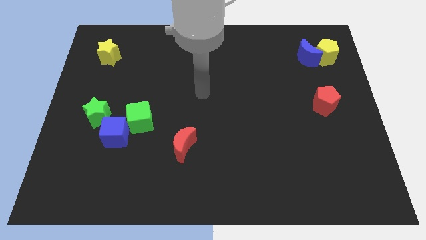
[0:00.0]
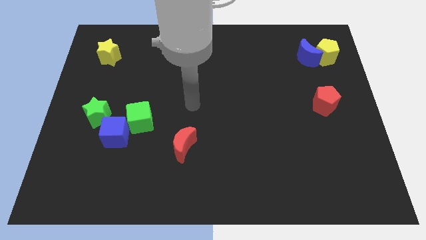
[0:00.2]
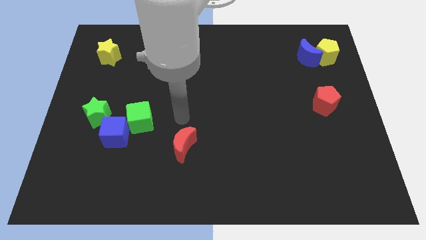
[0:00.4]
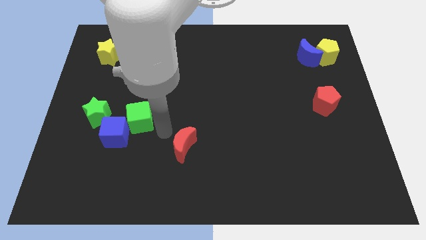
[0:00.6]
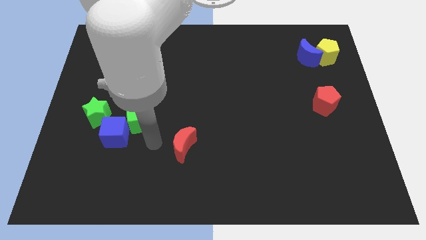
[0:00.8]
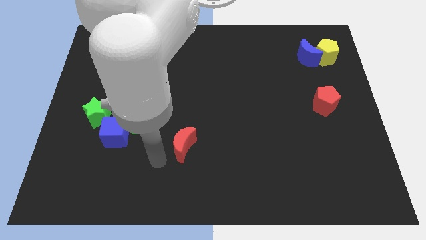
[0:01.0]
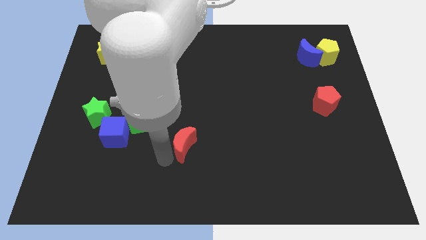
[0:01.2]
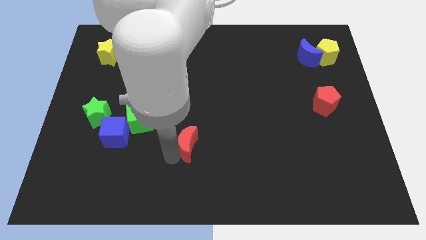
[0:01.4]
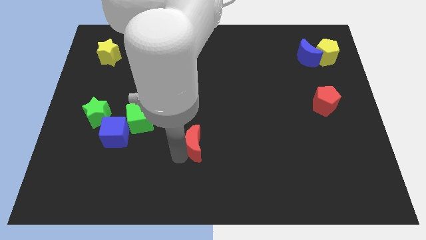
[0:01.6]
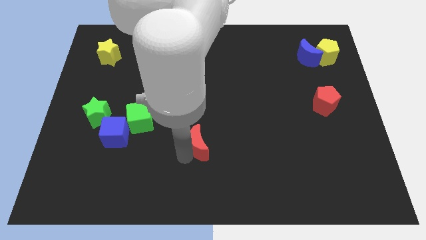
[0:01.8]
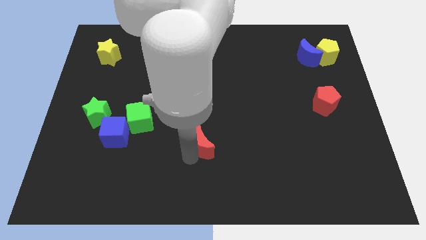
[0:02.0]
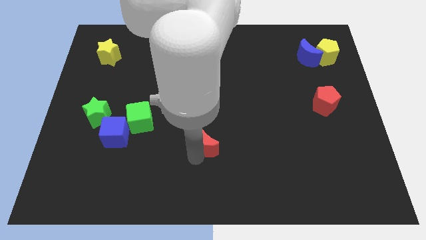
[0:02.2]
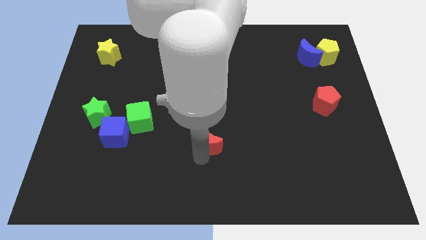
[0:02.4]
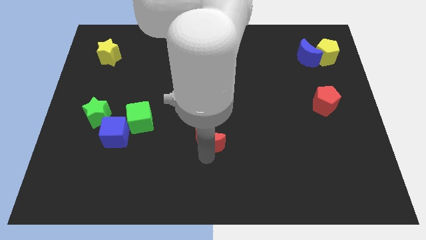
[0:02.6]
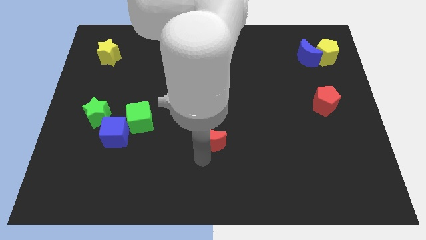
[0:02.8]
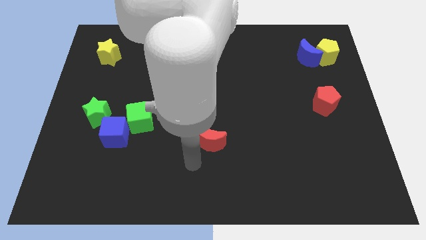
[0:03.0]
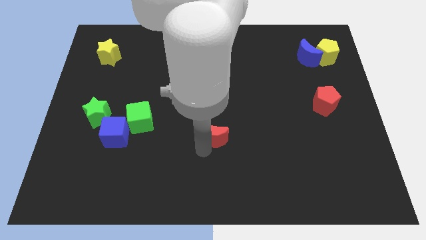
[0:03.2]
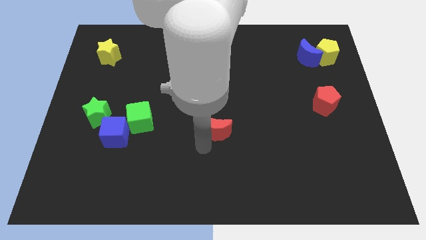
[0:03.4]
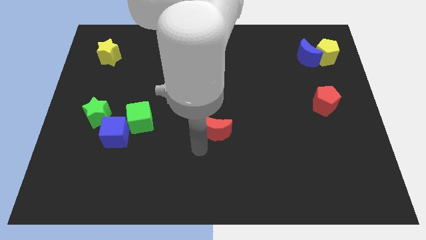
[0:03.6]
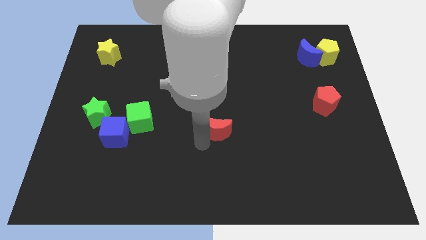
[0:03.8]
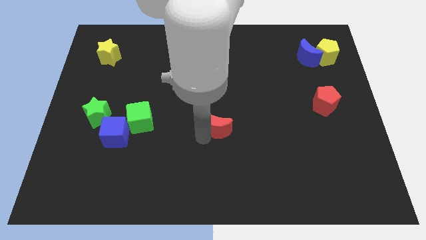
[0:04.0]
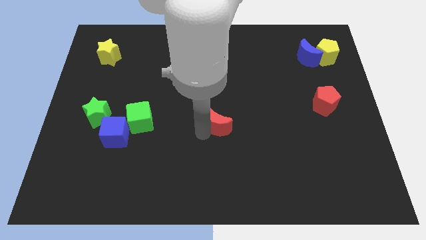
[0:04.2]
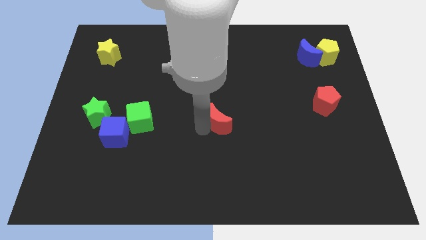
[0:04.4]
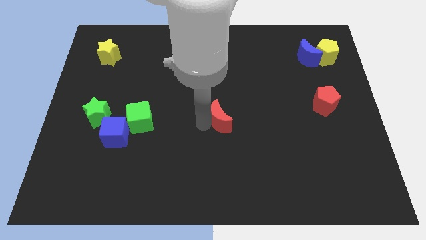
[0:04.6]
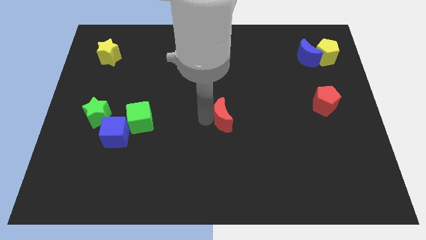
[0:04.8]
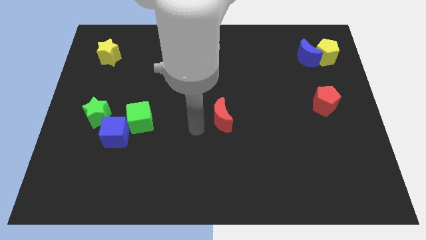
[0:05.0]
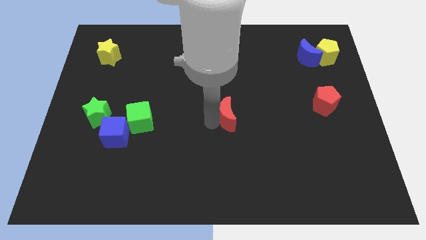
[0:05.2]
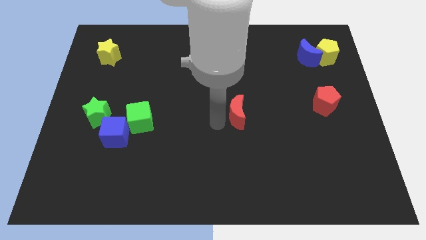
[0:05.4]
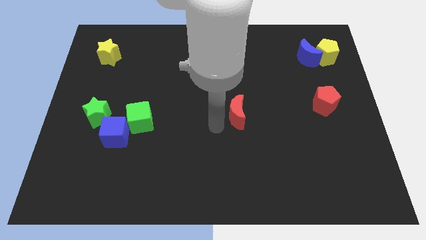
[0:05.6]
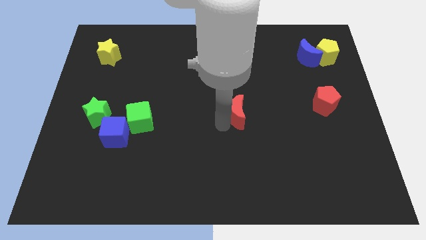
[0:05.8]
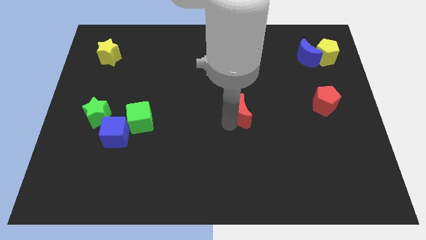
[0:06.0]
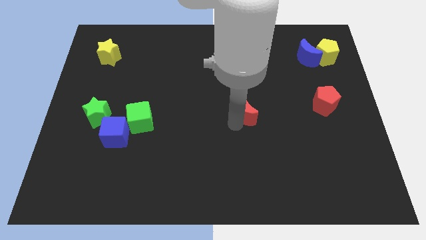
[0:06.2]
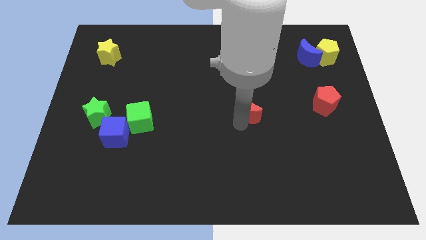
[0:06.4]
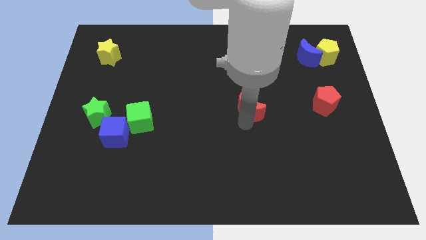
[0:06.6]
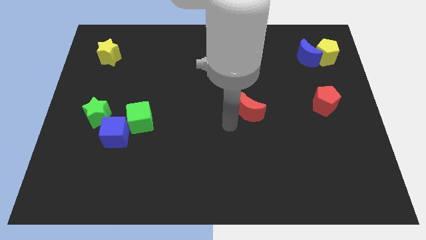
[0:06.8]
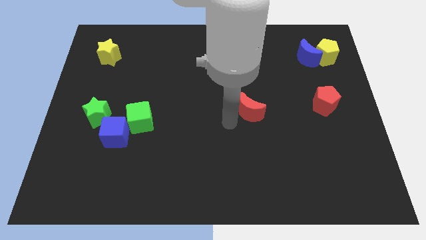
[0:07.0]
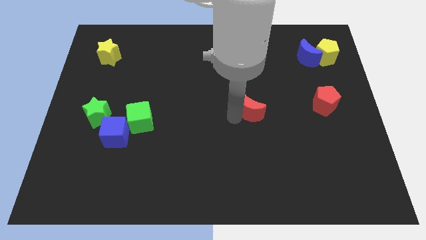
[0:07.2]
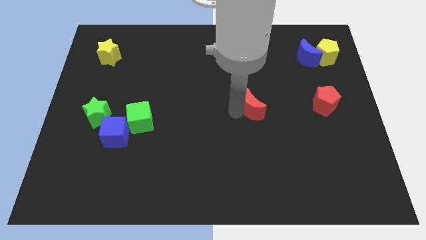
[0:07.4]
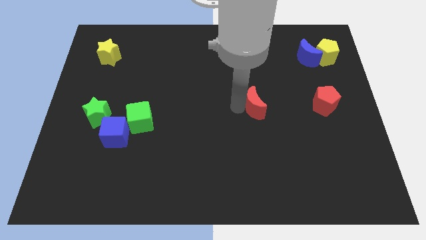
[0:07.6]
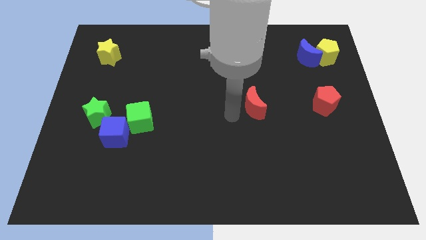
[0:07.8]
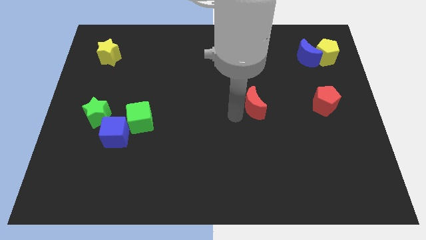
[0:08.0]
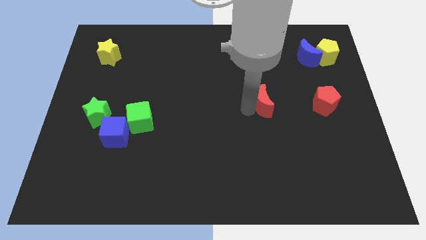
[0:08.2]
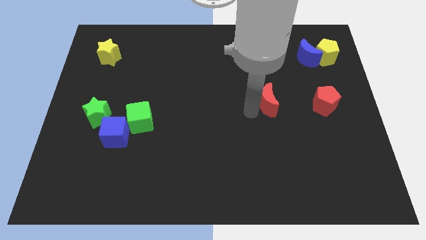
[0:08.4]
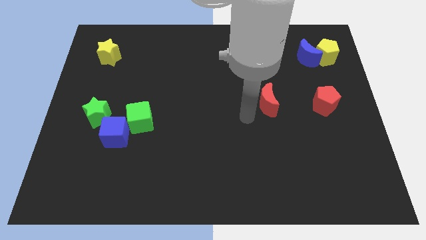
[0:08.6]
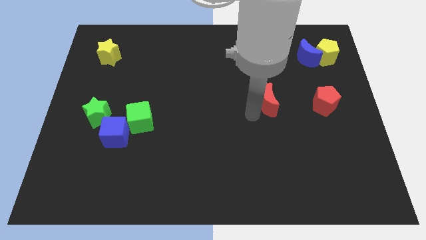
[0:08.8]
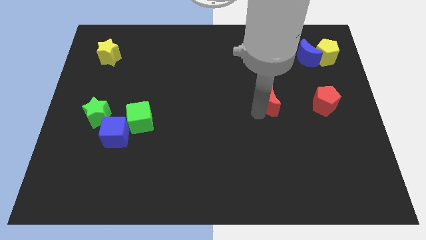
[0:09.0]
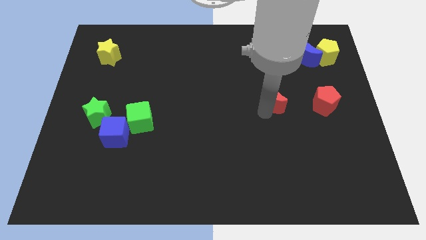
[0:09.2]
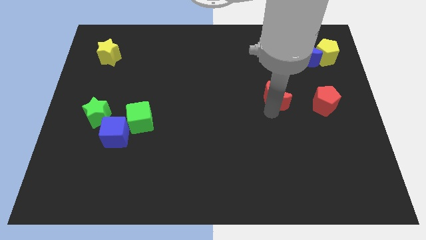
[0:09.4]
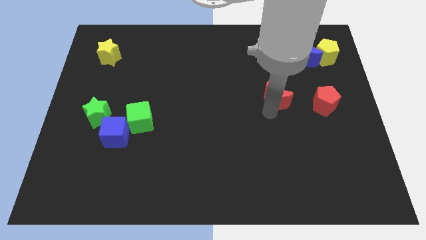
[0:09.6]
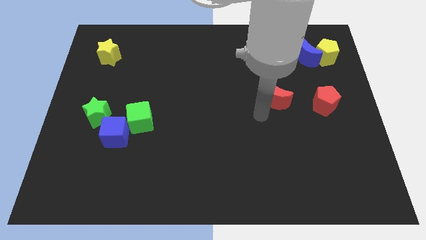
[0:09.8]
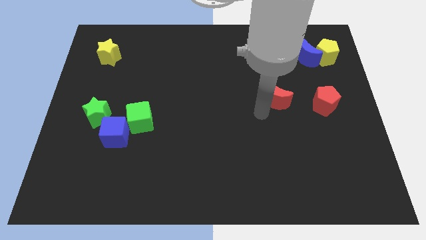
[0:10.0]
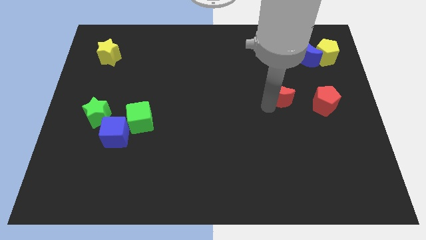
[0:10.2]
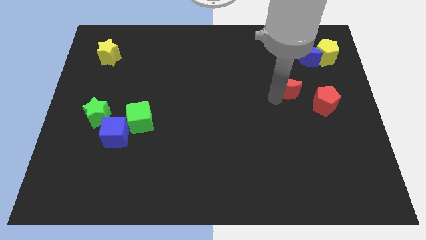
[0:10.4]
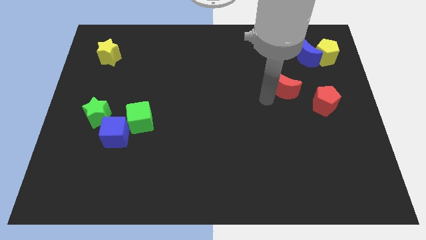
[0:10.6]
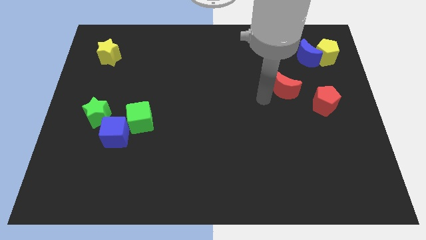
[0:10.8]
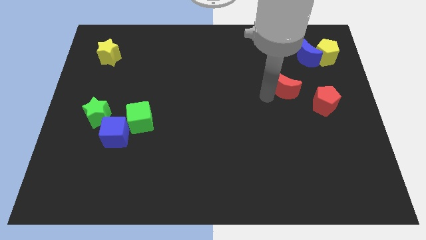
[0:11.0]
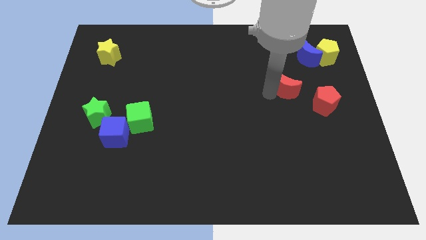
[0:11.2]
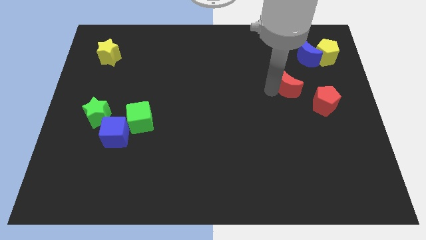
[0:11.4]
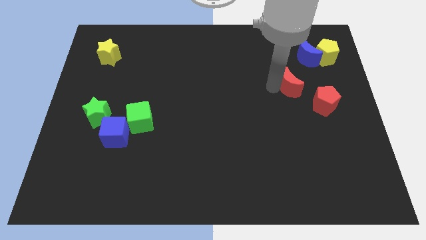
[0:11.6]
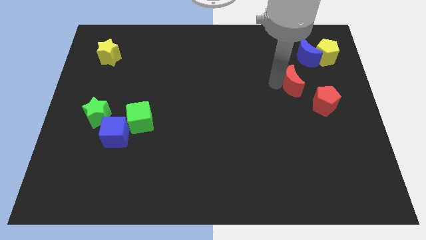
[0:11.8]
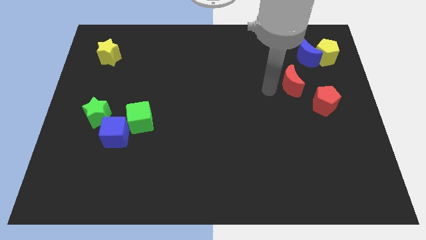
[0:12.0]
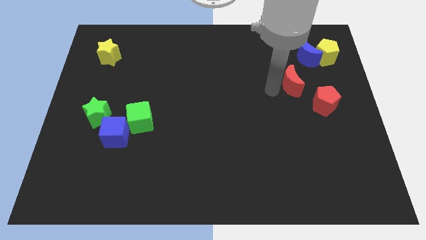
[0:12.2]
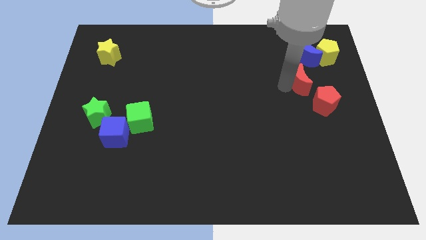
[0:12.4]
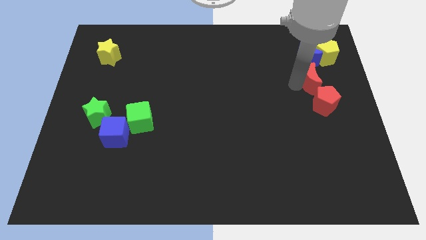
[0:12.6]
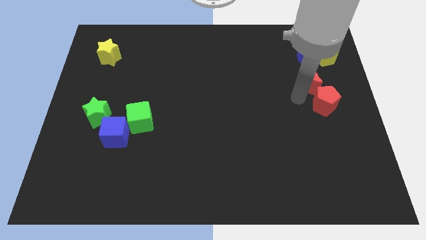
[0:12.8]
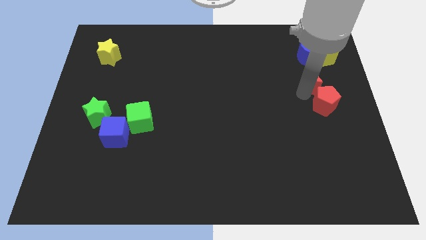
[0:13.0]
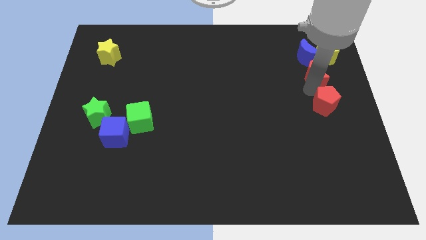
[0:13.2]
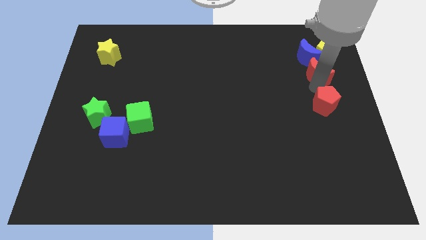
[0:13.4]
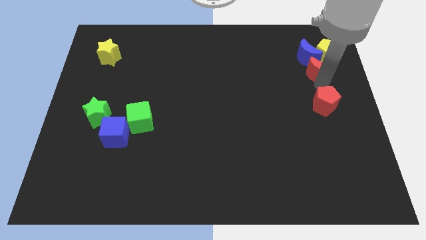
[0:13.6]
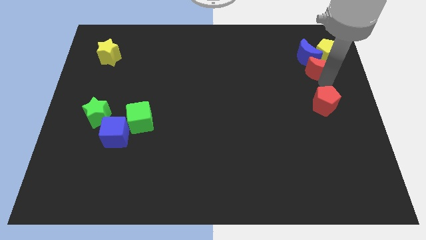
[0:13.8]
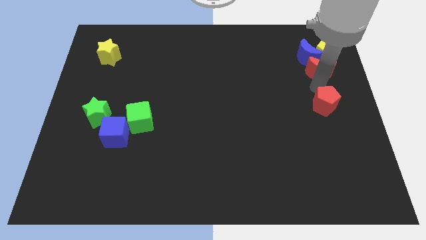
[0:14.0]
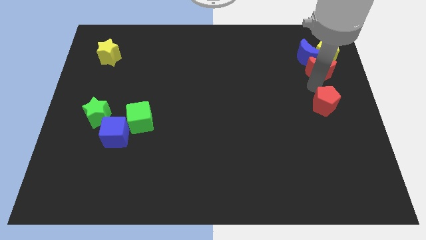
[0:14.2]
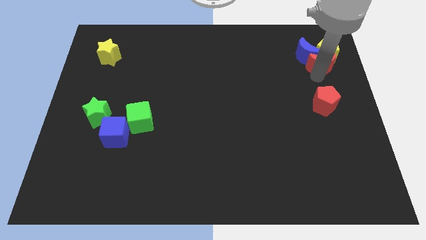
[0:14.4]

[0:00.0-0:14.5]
put the red moon close to the yellow pentagon

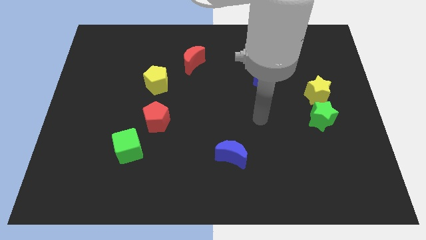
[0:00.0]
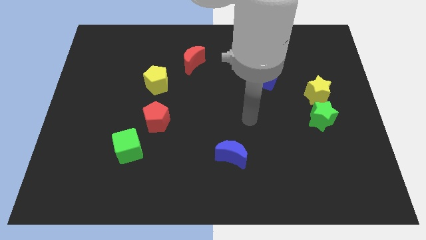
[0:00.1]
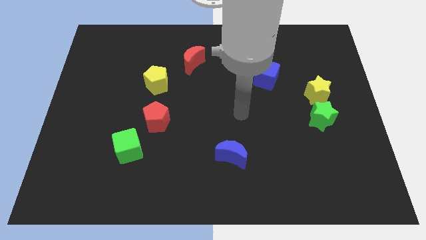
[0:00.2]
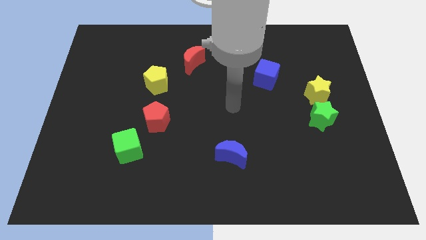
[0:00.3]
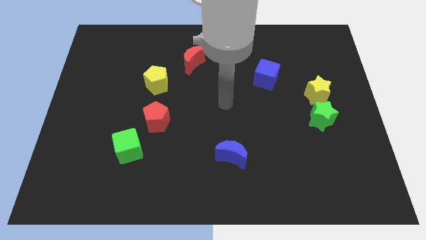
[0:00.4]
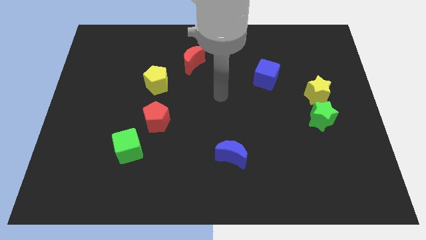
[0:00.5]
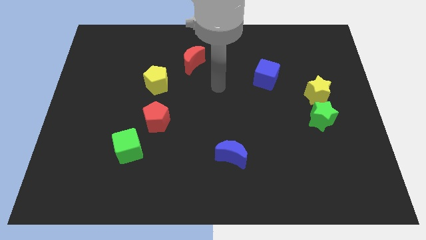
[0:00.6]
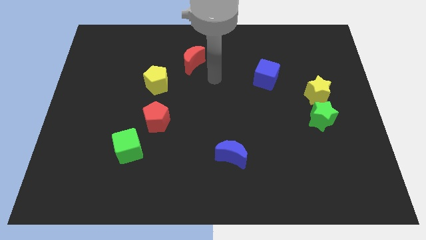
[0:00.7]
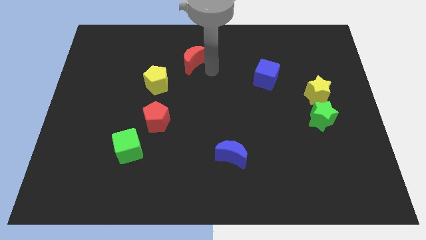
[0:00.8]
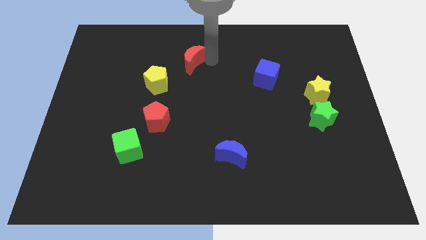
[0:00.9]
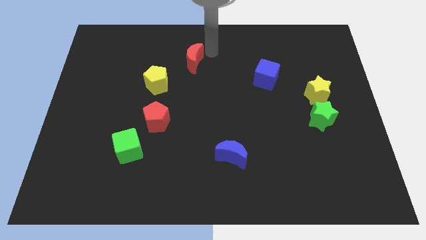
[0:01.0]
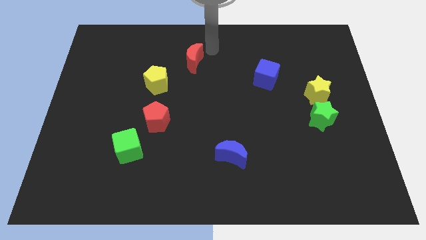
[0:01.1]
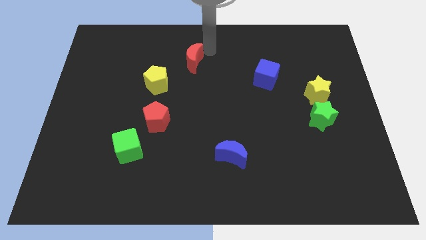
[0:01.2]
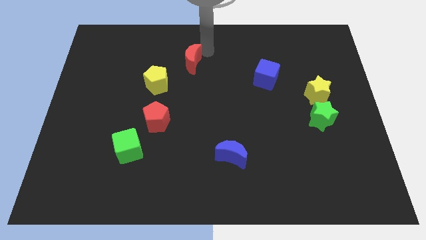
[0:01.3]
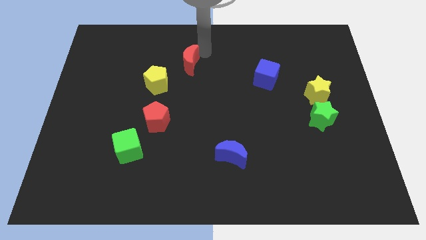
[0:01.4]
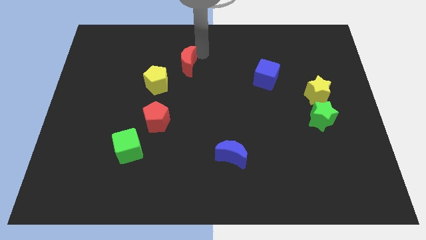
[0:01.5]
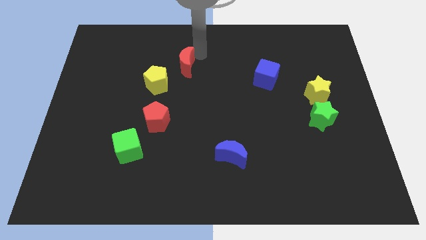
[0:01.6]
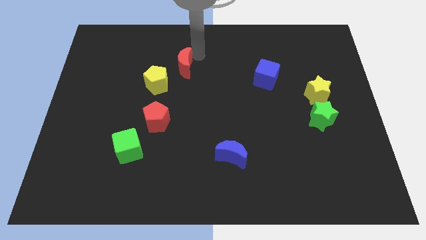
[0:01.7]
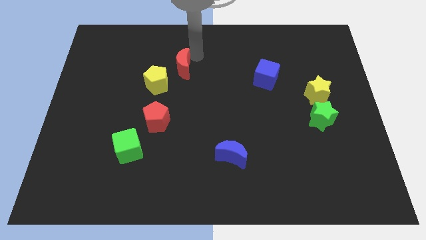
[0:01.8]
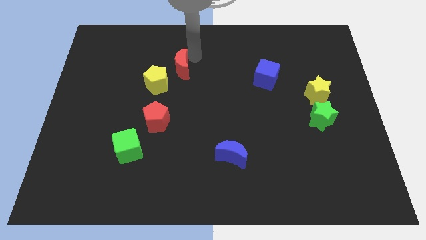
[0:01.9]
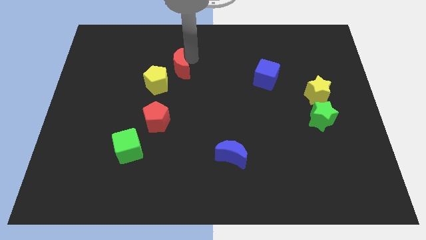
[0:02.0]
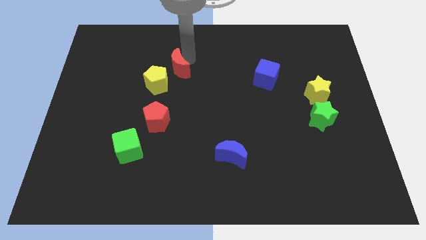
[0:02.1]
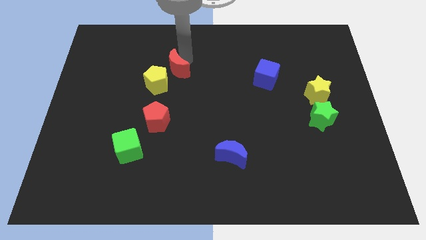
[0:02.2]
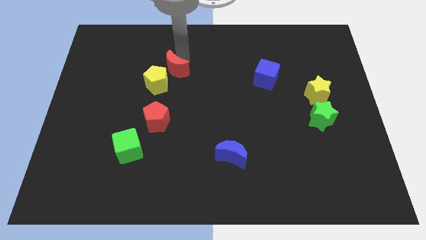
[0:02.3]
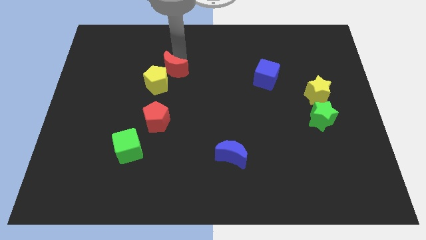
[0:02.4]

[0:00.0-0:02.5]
push the red moon towards the yellow pentagon
